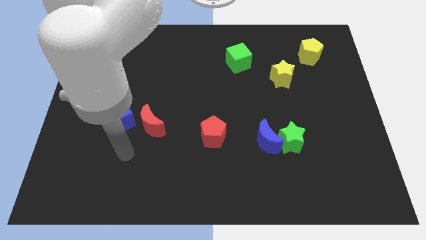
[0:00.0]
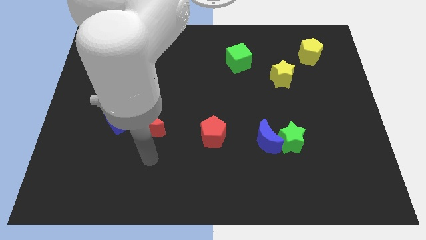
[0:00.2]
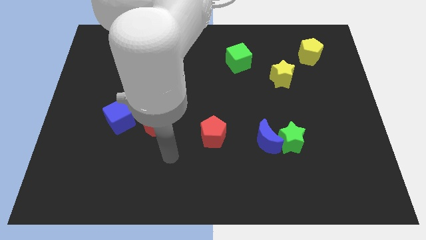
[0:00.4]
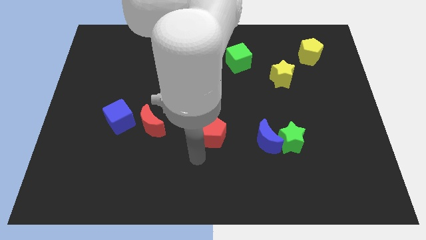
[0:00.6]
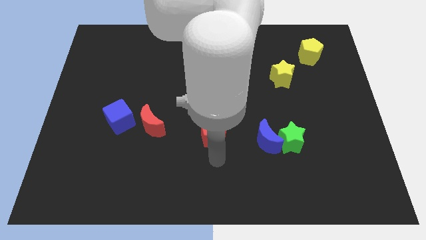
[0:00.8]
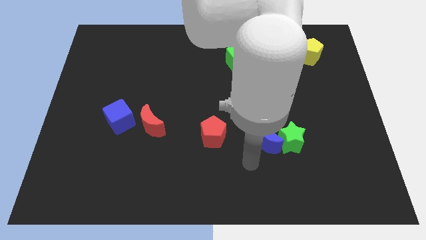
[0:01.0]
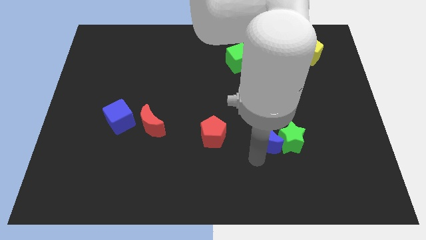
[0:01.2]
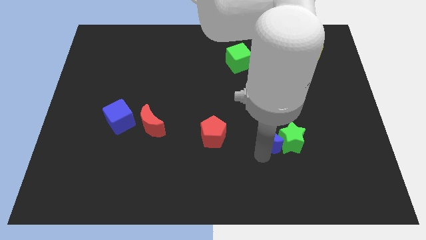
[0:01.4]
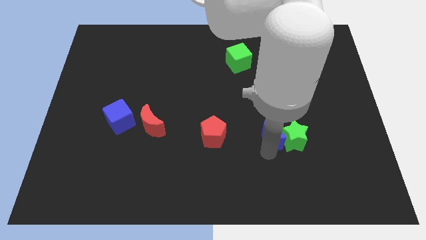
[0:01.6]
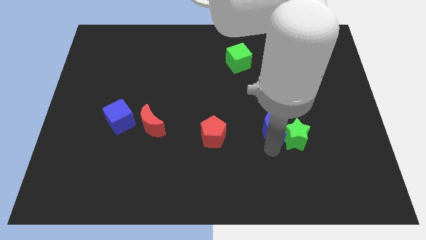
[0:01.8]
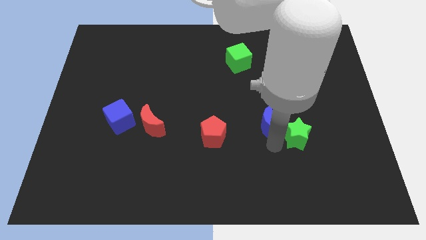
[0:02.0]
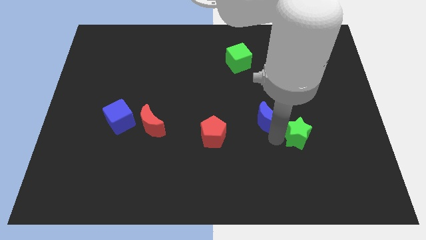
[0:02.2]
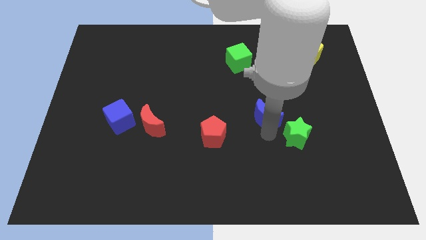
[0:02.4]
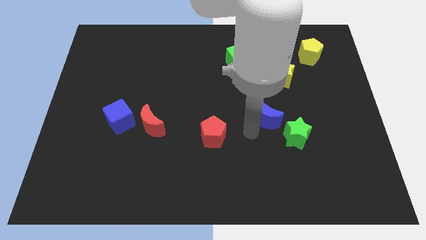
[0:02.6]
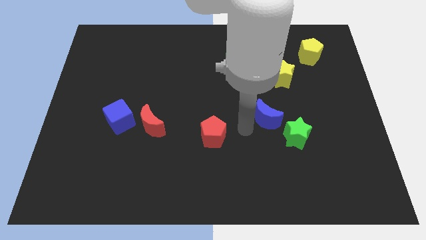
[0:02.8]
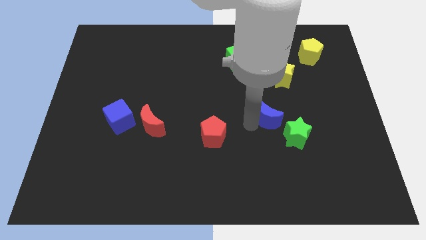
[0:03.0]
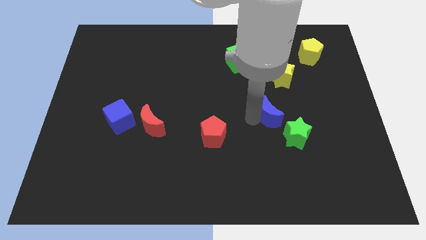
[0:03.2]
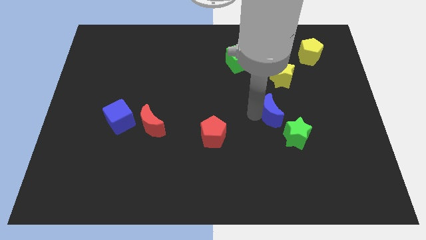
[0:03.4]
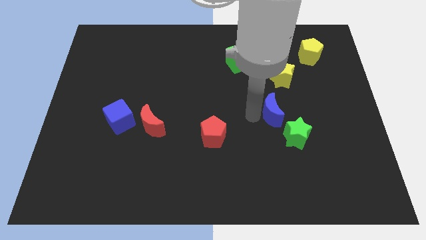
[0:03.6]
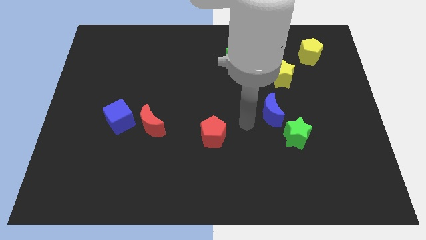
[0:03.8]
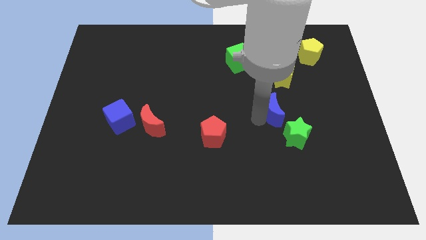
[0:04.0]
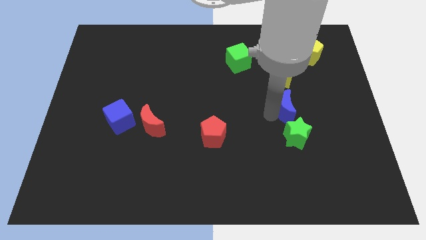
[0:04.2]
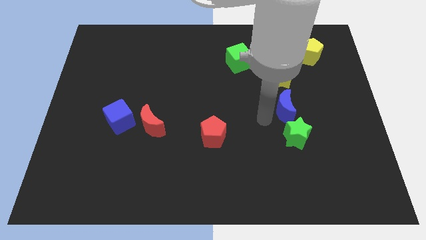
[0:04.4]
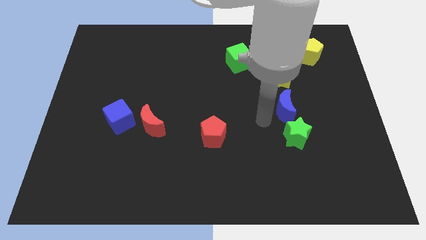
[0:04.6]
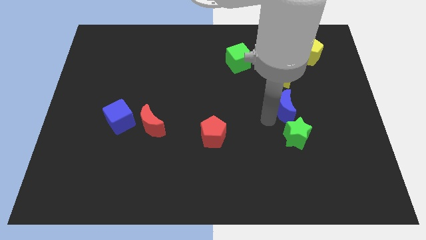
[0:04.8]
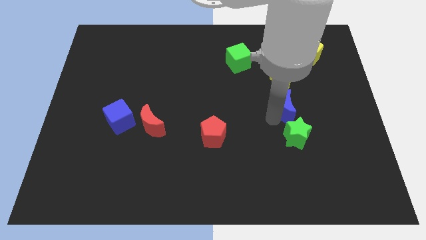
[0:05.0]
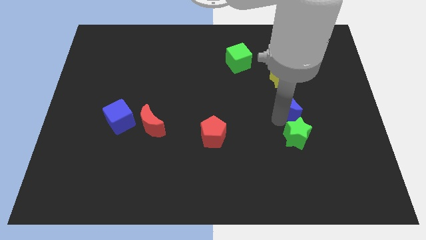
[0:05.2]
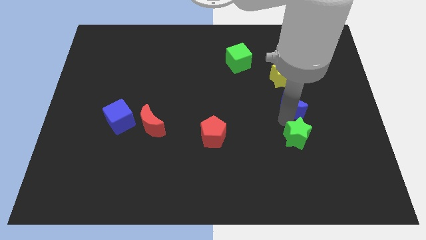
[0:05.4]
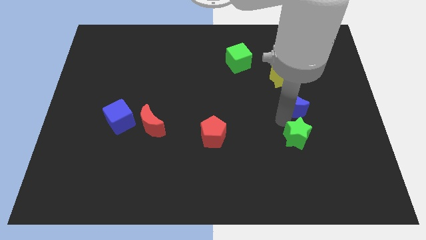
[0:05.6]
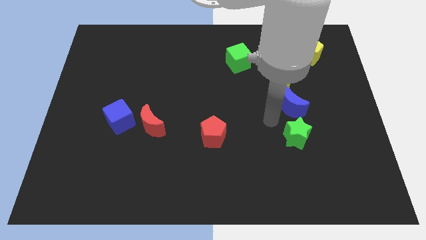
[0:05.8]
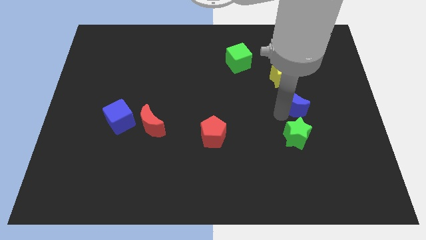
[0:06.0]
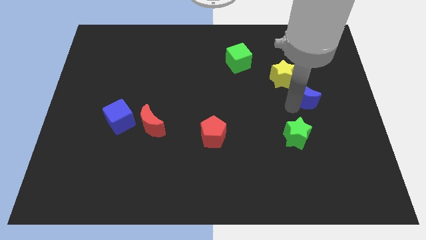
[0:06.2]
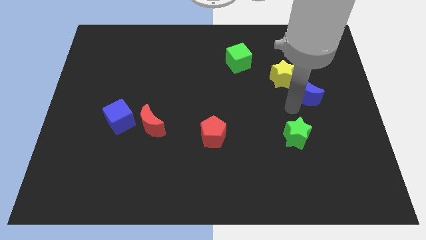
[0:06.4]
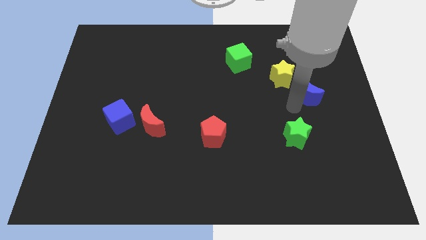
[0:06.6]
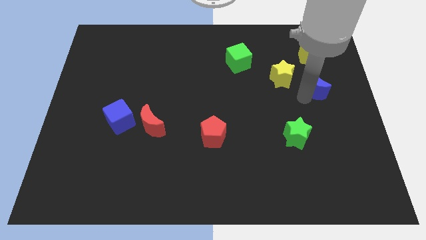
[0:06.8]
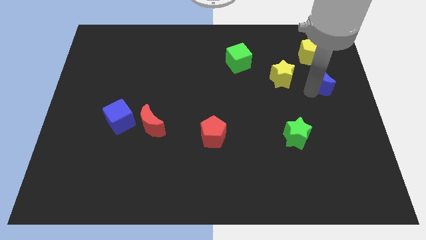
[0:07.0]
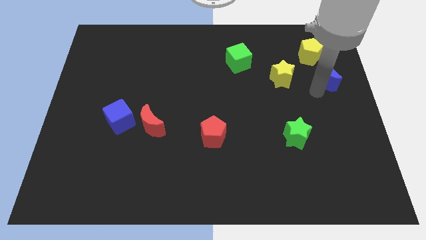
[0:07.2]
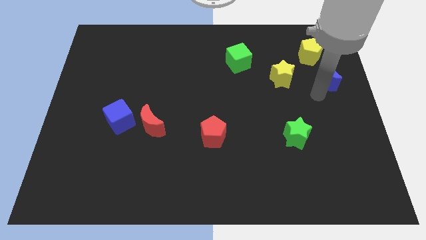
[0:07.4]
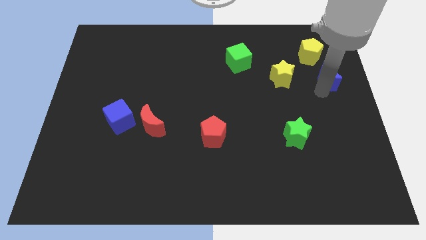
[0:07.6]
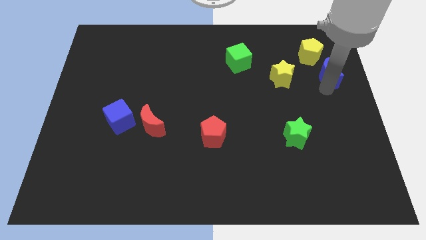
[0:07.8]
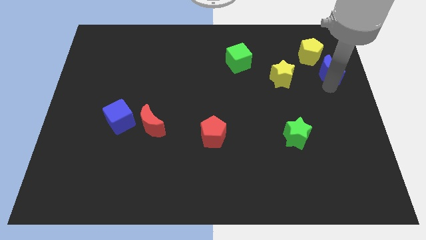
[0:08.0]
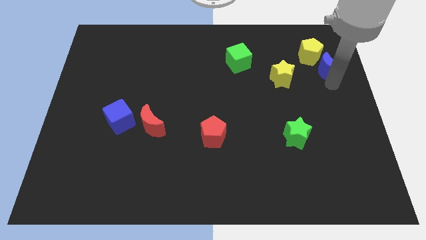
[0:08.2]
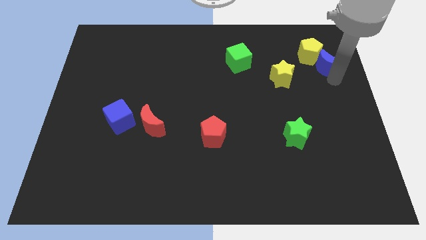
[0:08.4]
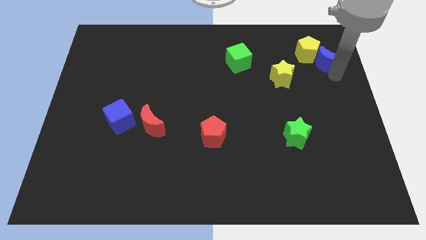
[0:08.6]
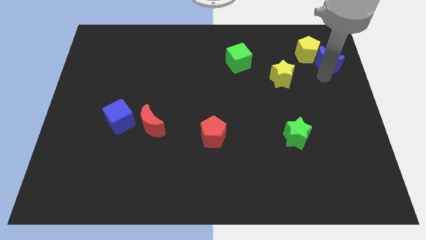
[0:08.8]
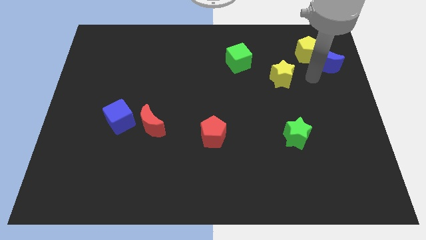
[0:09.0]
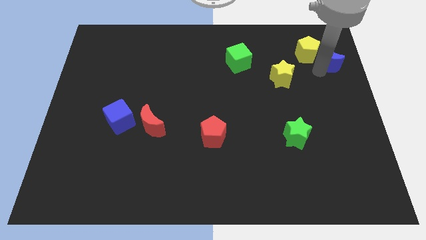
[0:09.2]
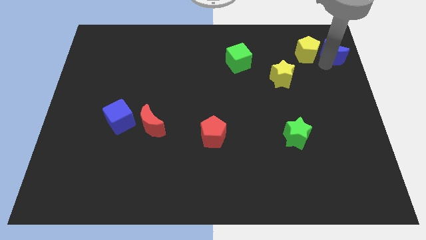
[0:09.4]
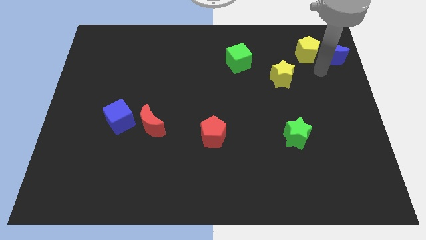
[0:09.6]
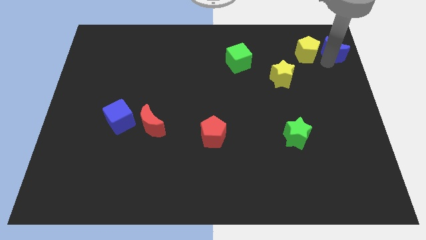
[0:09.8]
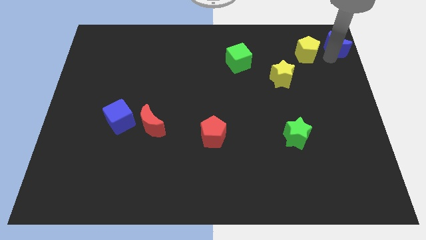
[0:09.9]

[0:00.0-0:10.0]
put the blue moon to the top right of the board

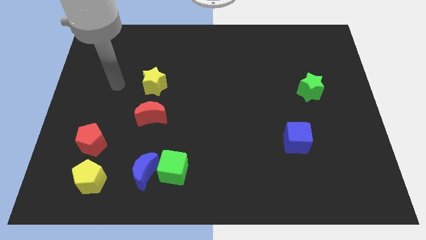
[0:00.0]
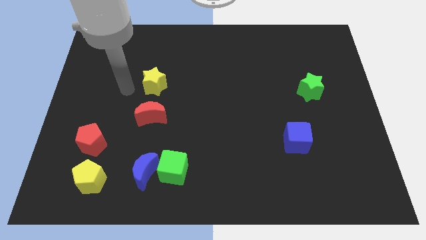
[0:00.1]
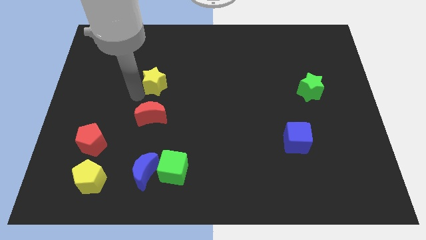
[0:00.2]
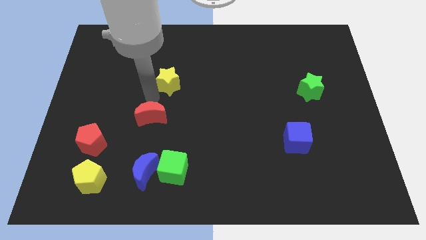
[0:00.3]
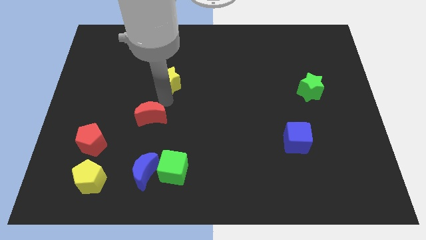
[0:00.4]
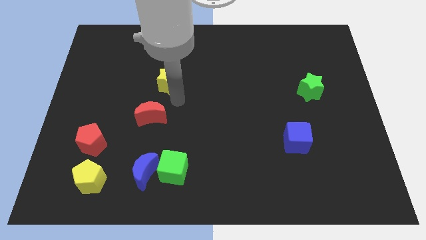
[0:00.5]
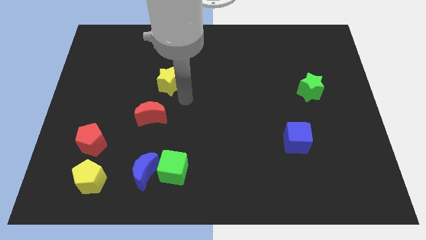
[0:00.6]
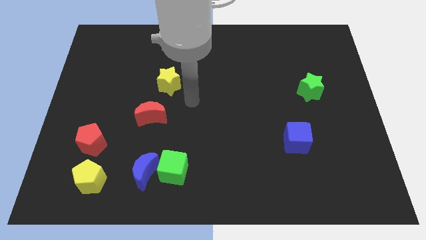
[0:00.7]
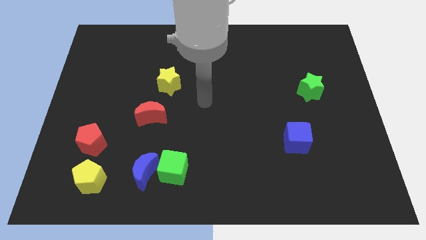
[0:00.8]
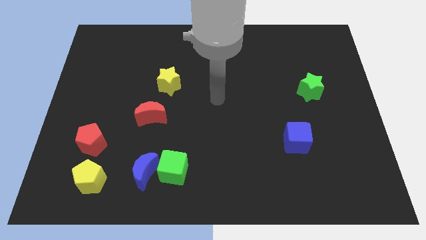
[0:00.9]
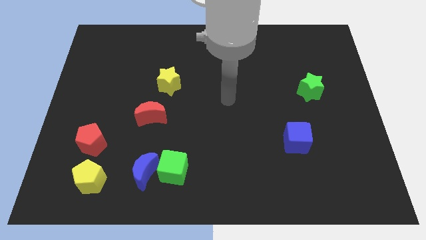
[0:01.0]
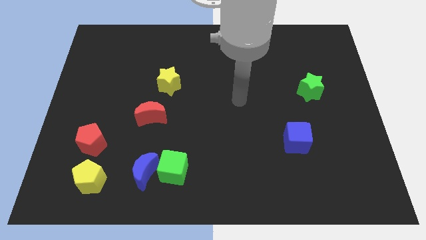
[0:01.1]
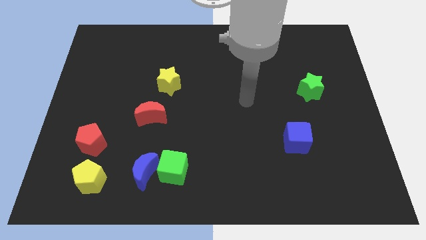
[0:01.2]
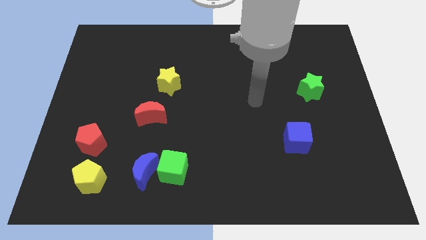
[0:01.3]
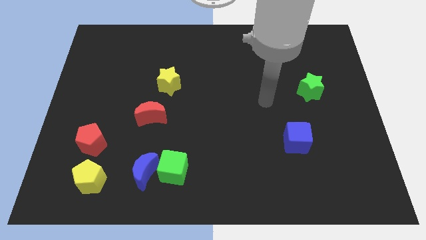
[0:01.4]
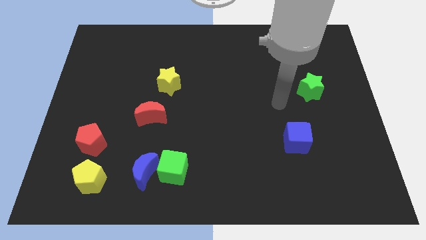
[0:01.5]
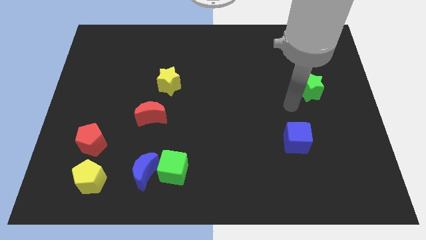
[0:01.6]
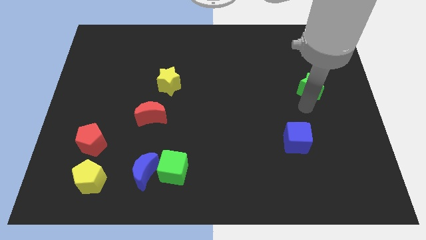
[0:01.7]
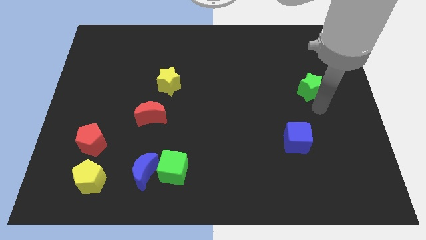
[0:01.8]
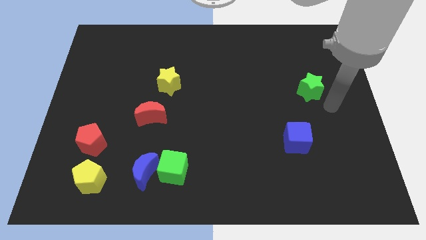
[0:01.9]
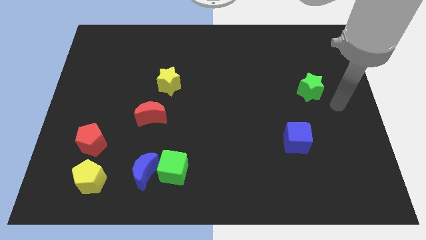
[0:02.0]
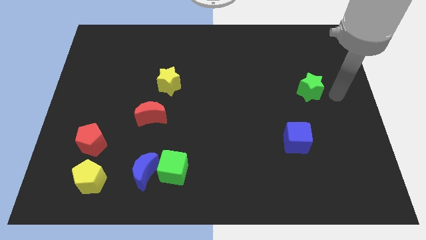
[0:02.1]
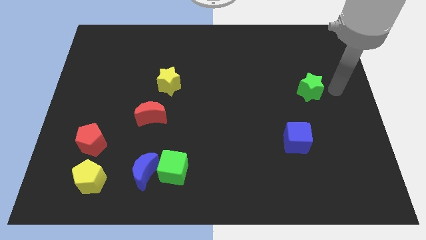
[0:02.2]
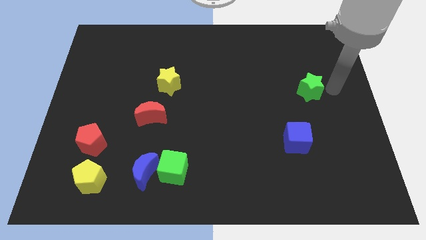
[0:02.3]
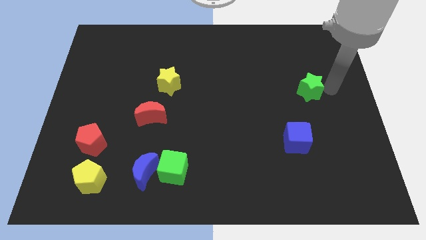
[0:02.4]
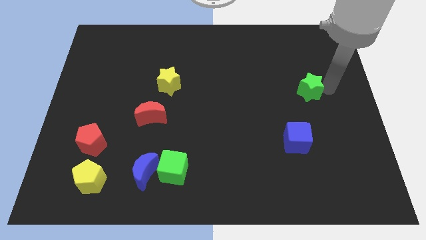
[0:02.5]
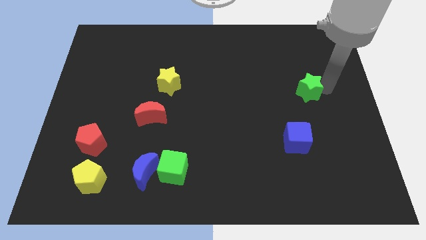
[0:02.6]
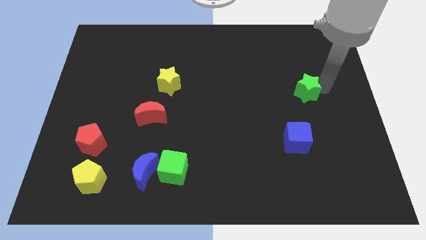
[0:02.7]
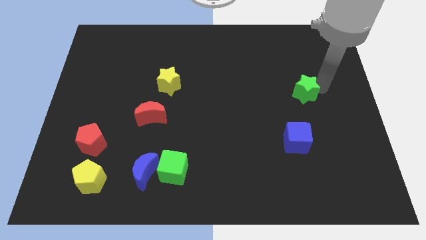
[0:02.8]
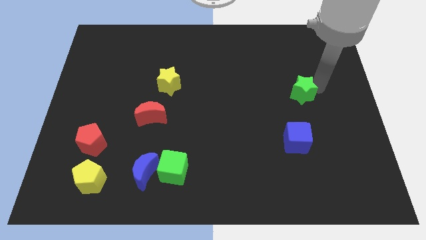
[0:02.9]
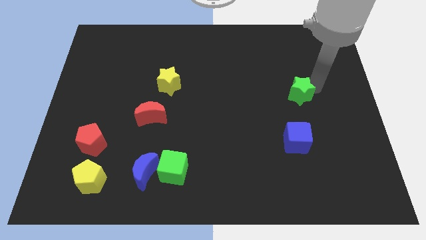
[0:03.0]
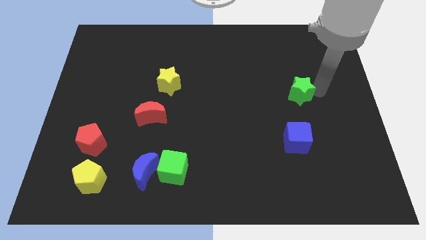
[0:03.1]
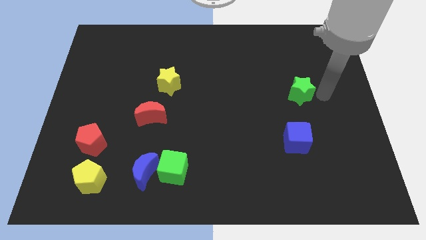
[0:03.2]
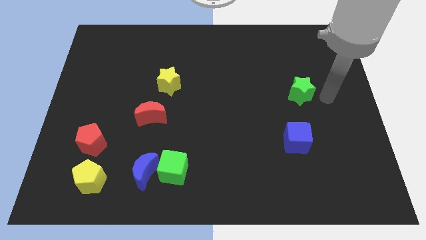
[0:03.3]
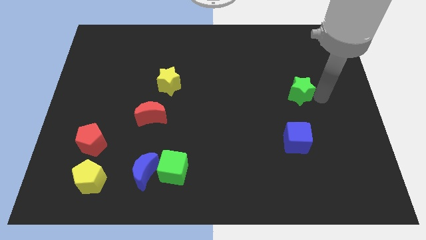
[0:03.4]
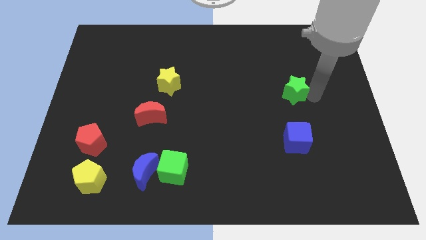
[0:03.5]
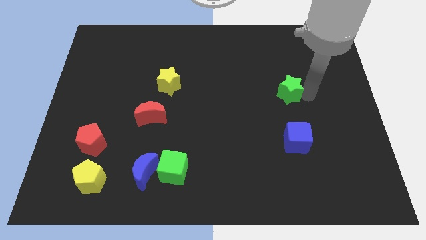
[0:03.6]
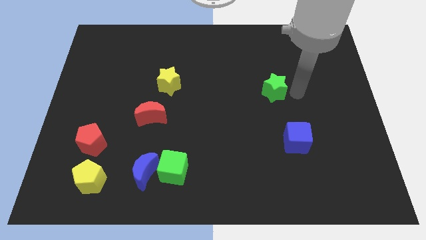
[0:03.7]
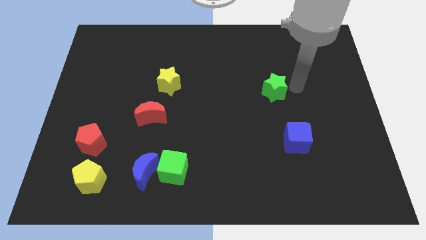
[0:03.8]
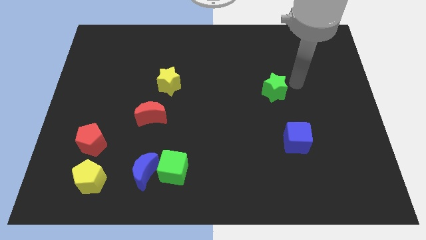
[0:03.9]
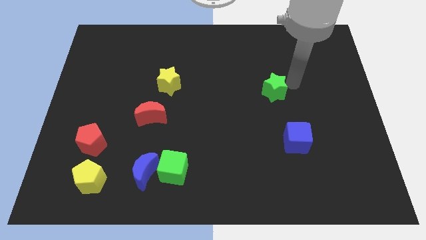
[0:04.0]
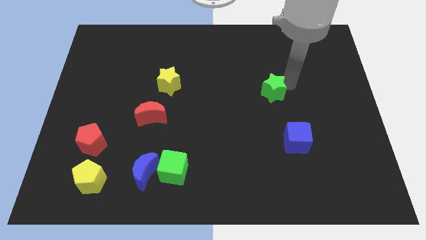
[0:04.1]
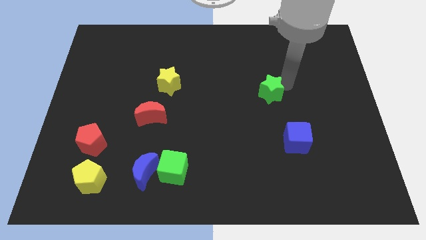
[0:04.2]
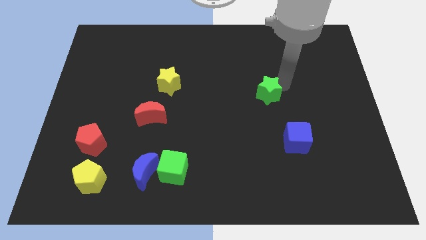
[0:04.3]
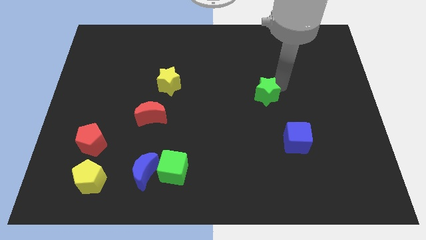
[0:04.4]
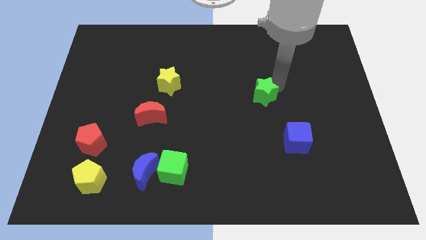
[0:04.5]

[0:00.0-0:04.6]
slide the green star to the middle of the board
